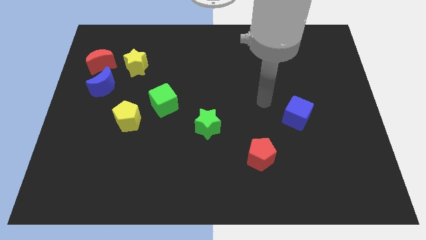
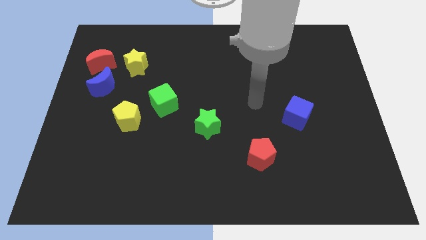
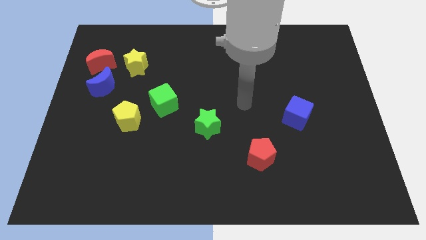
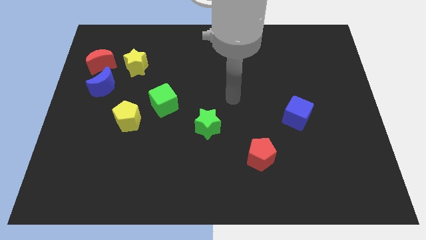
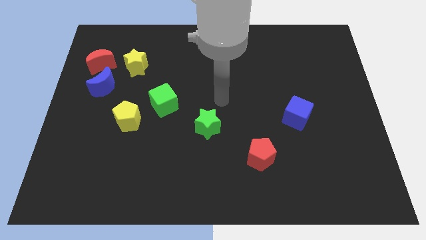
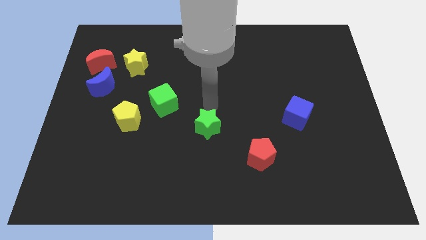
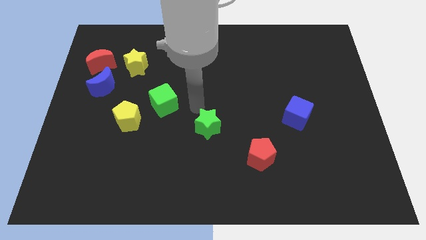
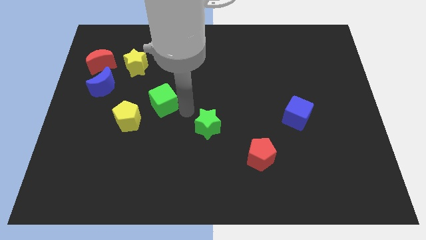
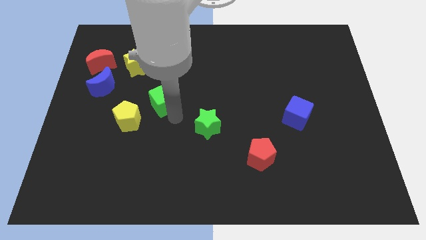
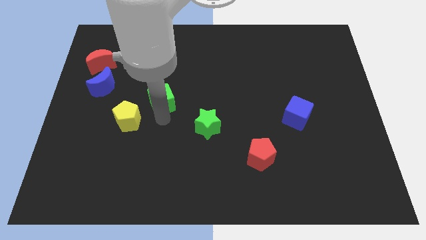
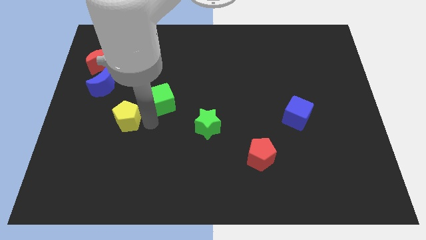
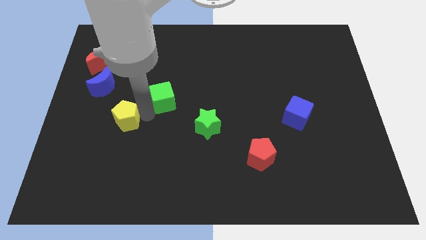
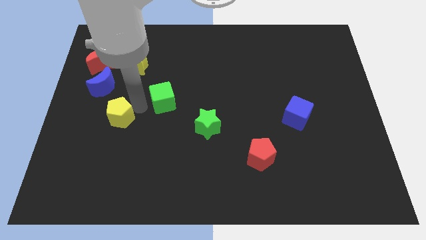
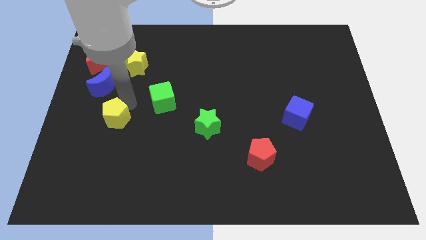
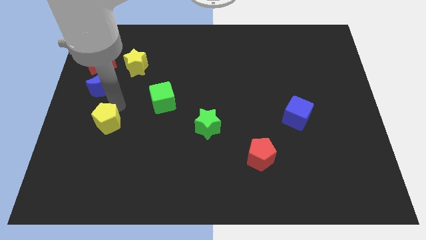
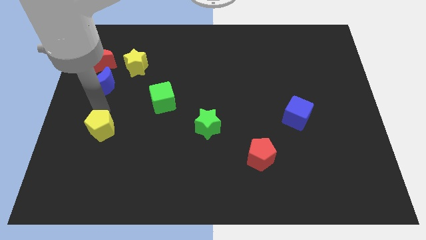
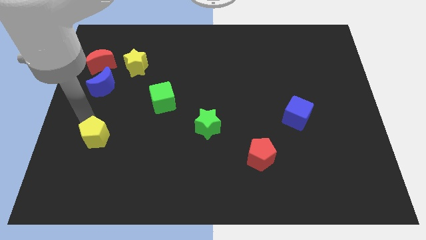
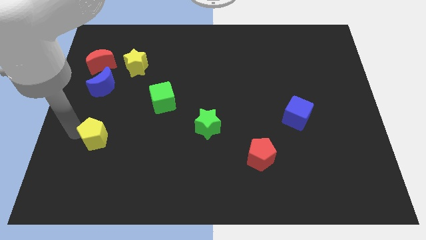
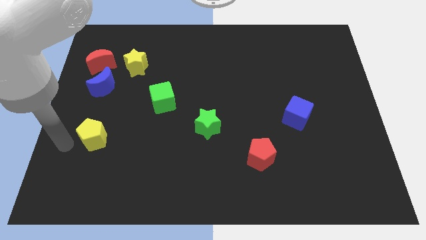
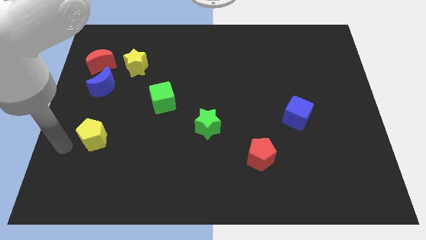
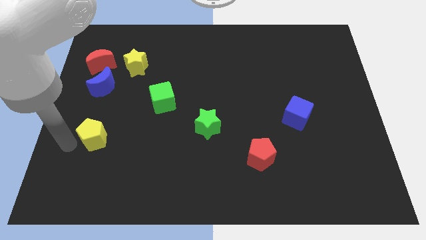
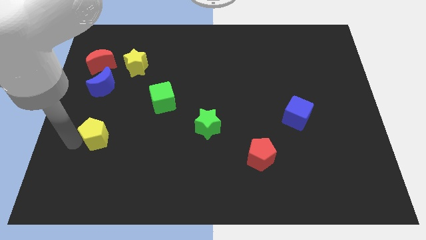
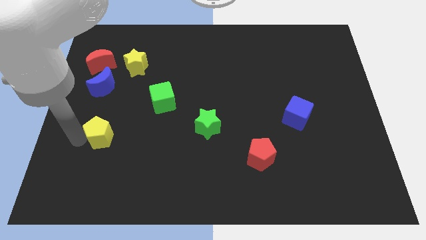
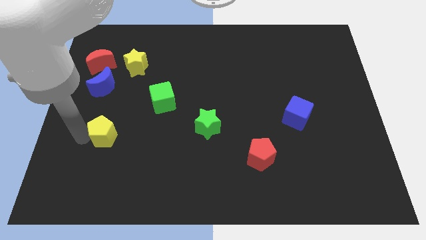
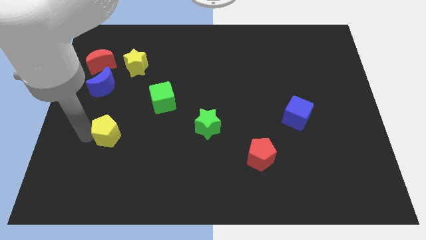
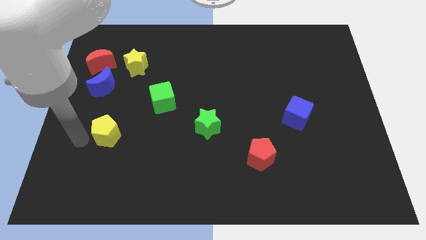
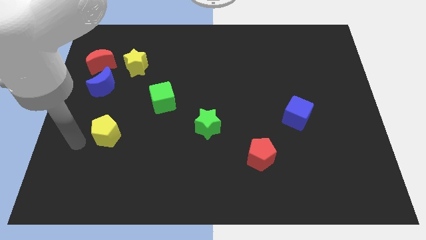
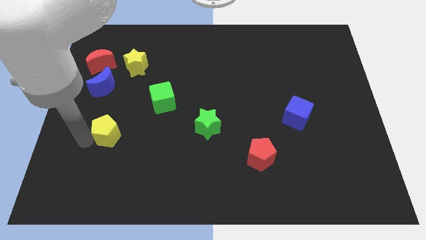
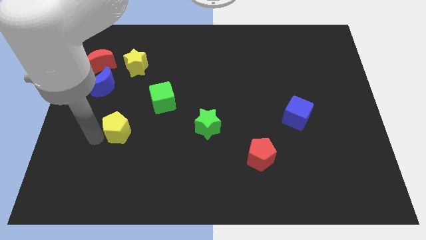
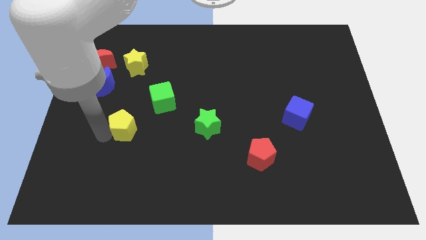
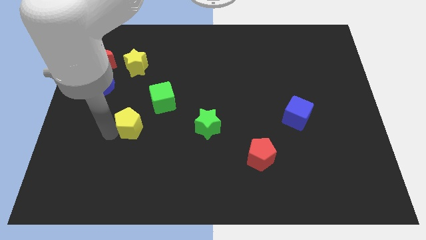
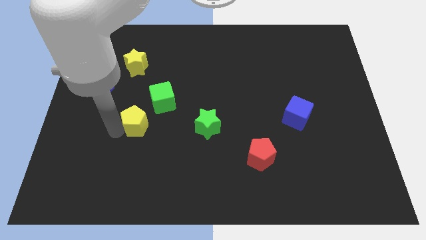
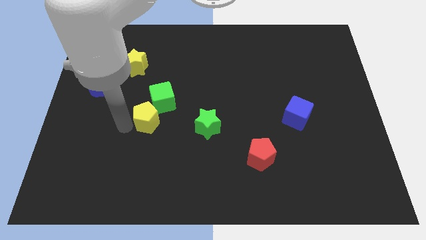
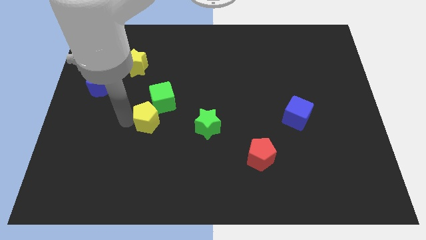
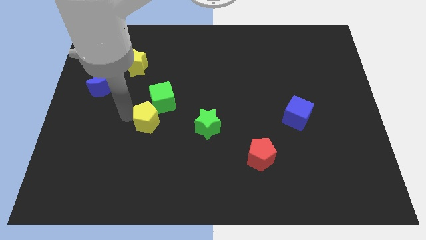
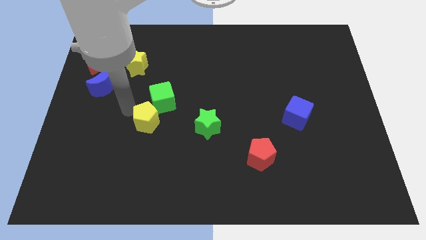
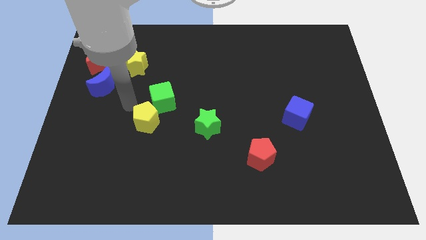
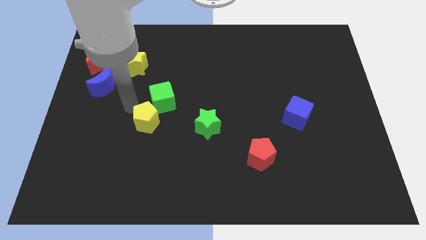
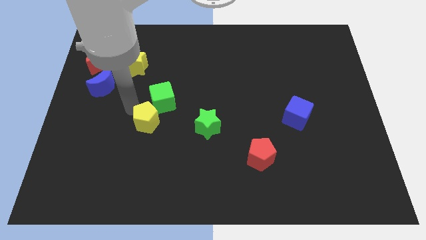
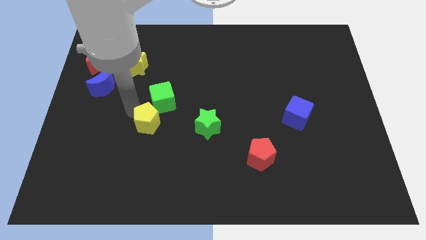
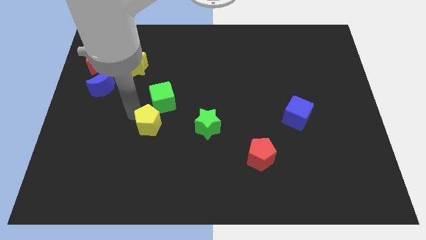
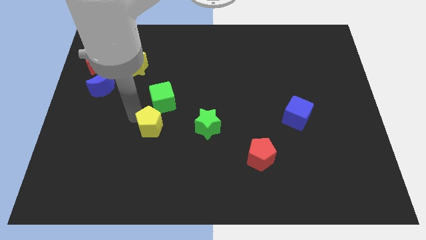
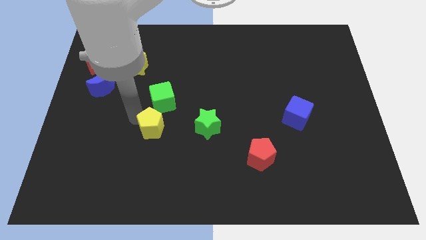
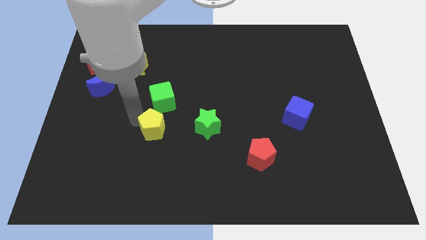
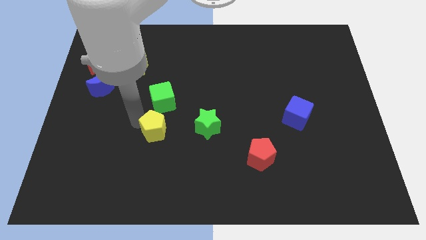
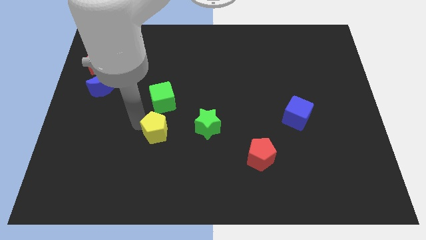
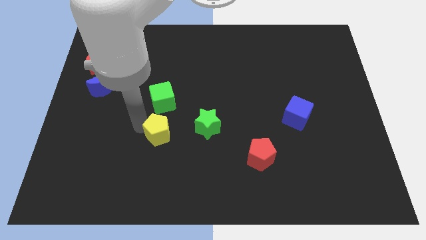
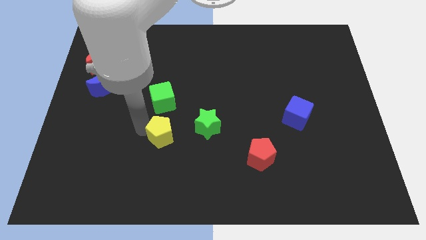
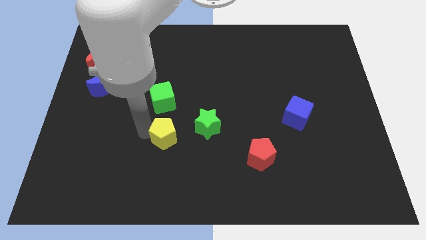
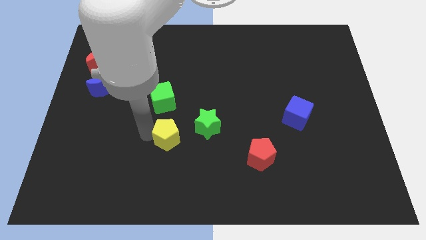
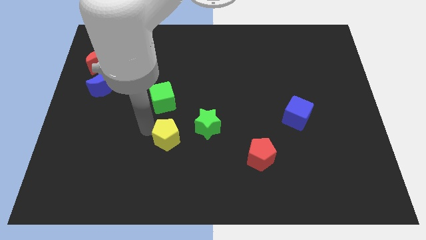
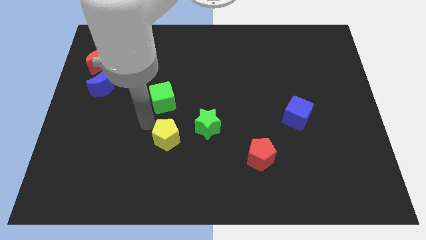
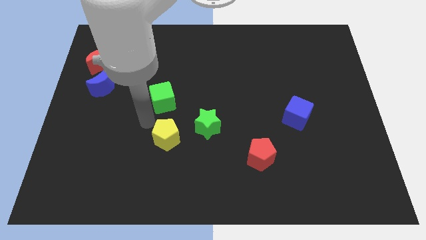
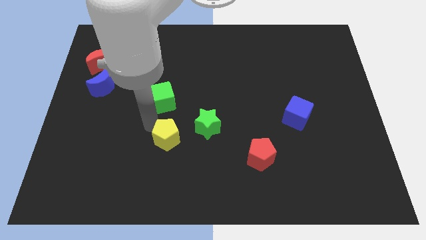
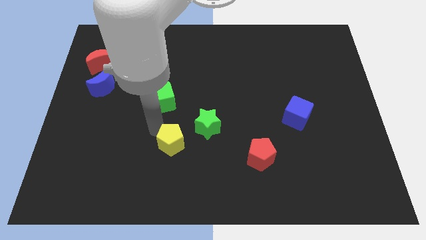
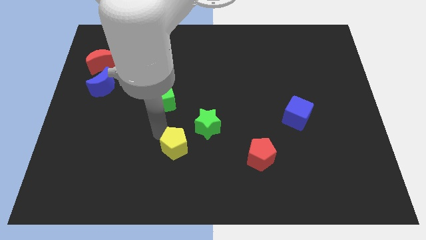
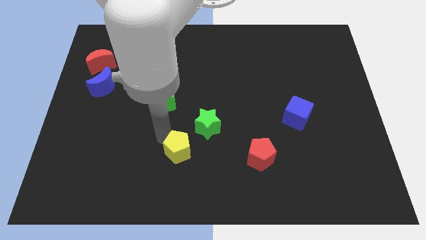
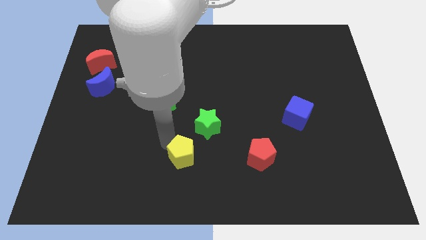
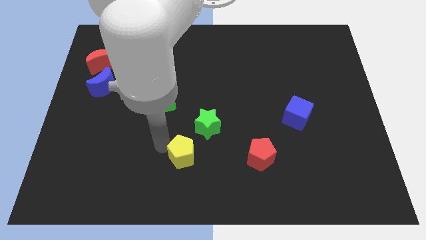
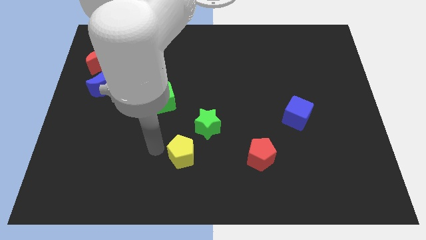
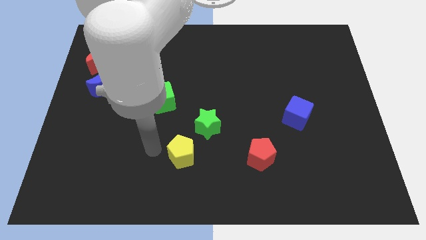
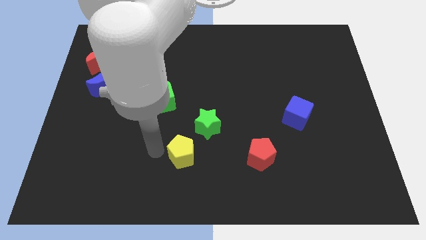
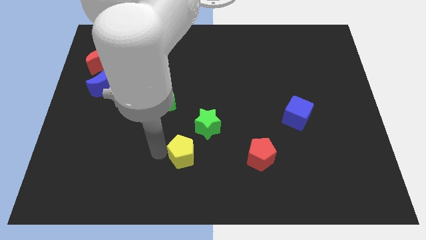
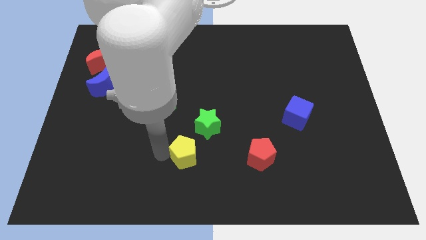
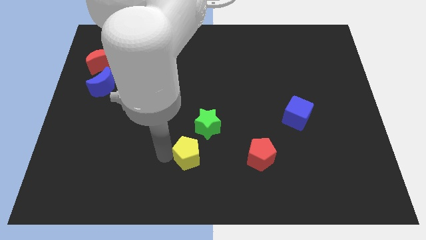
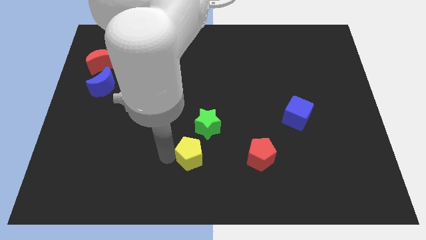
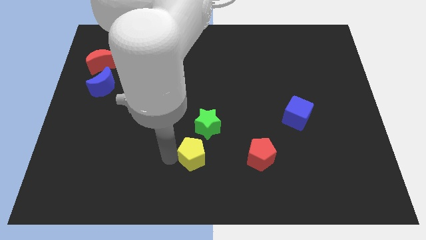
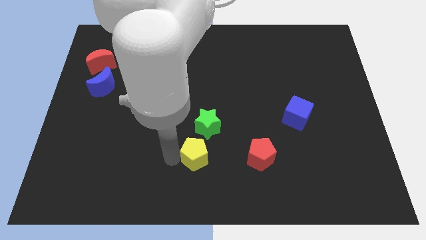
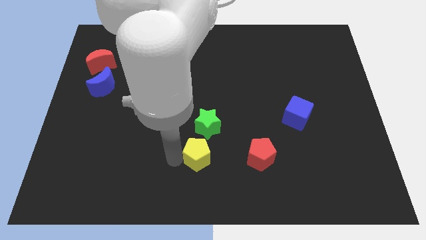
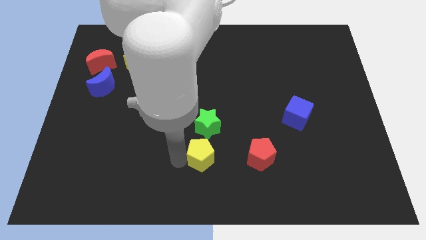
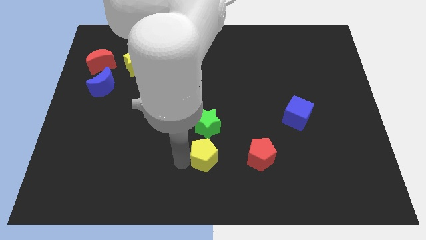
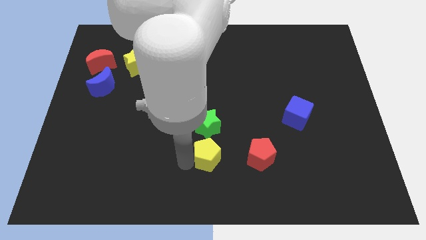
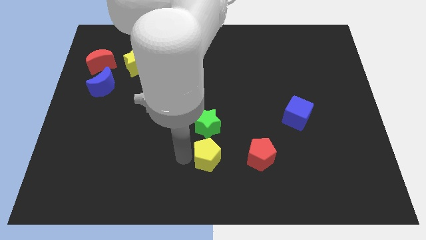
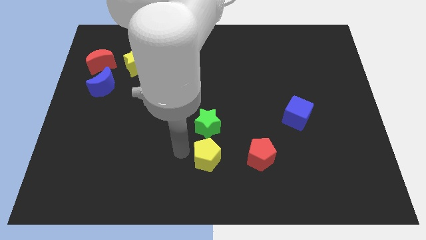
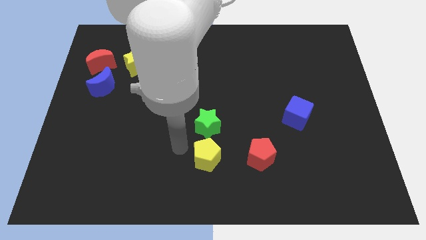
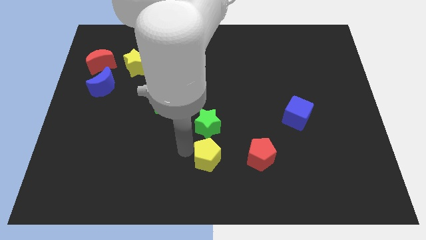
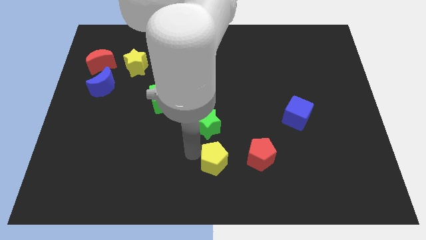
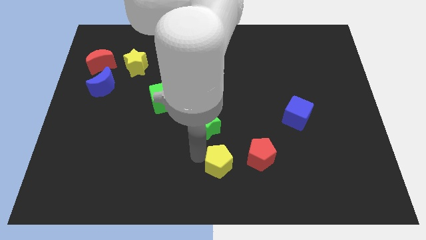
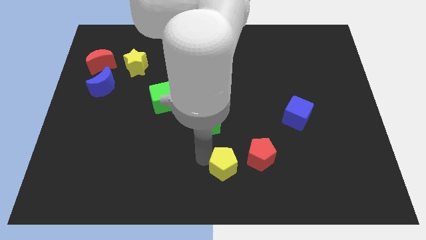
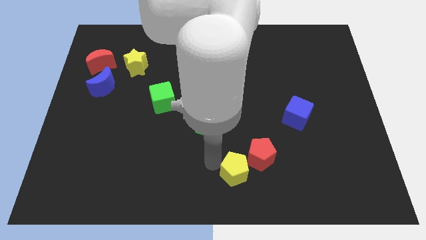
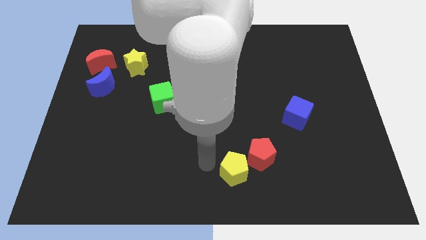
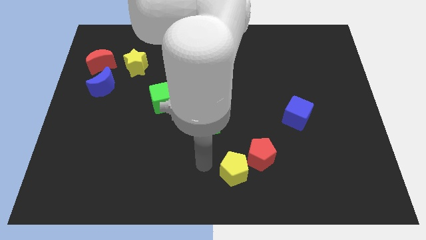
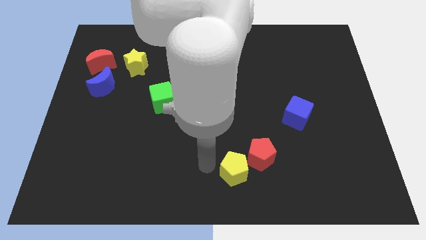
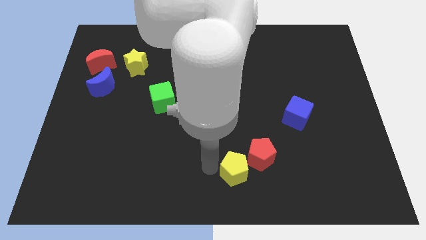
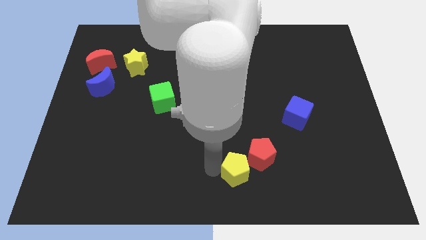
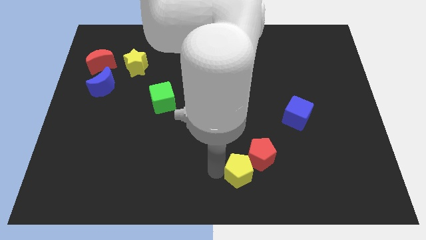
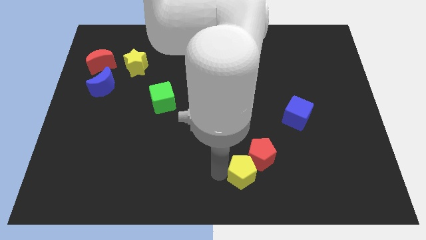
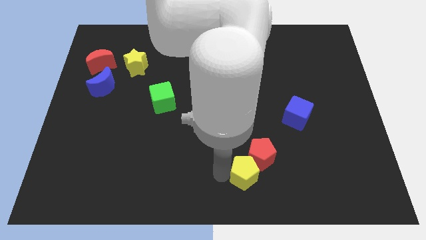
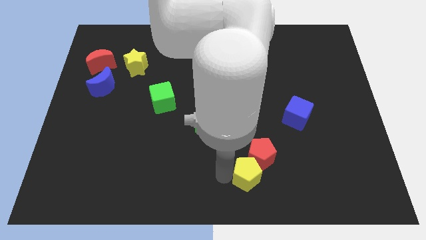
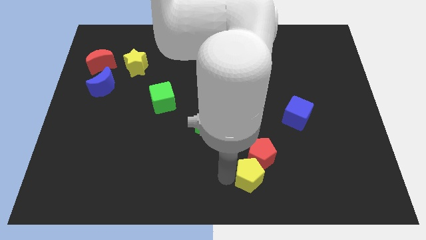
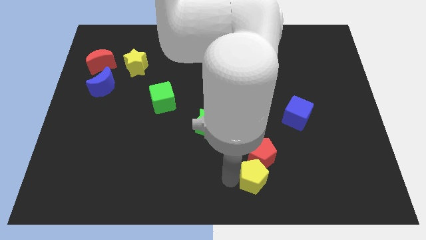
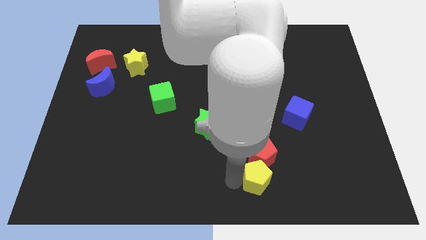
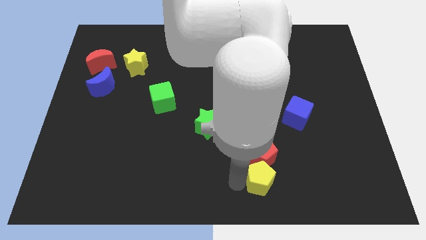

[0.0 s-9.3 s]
slide the yellow pentagon to the bottom right side of the red pentagon
